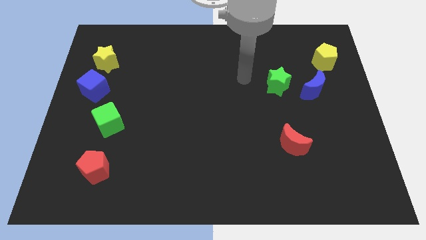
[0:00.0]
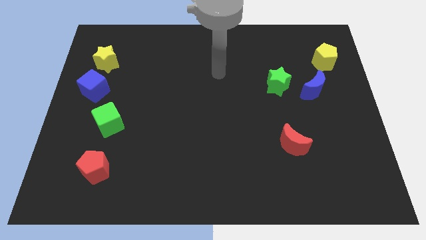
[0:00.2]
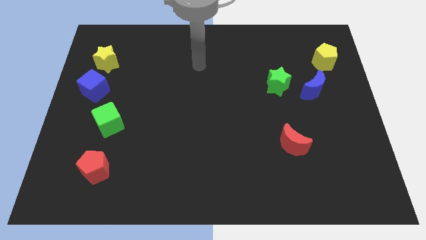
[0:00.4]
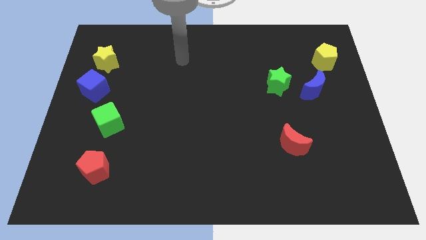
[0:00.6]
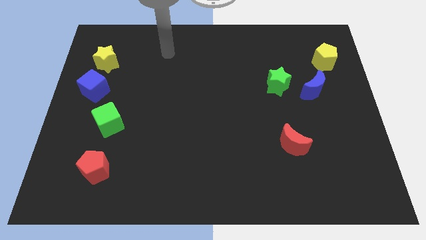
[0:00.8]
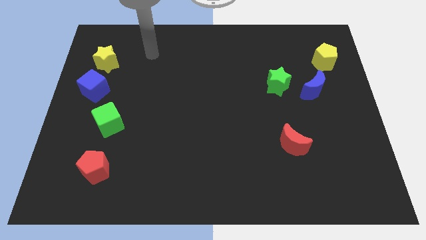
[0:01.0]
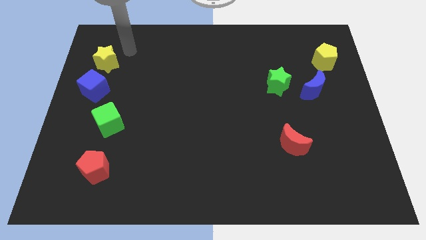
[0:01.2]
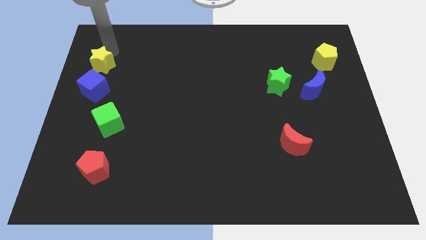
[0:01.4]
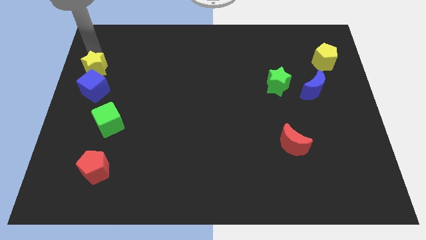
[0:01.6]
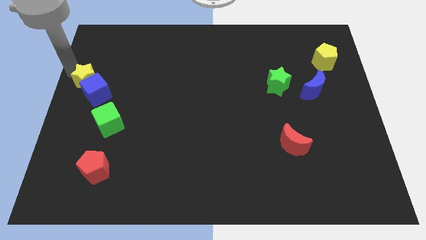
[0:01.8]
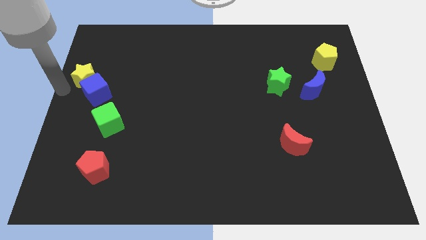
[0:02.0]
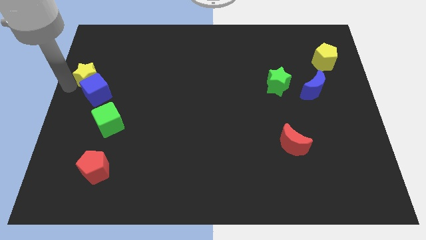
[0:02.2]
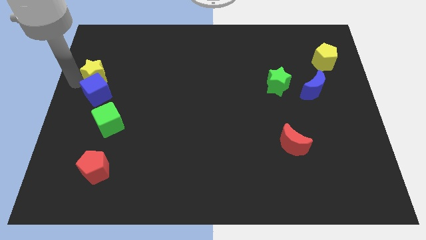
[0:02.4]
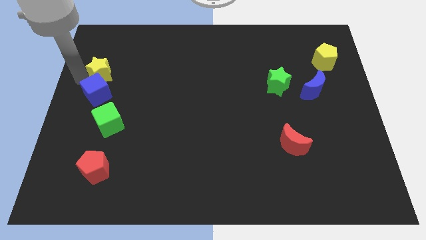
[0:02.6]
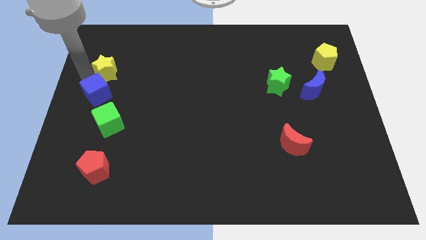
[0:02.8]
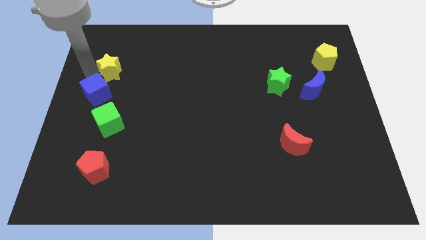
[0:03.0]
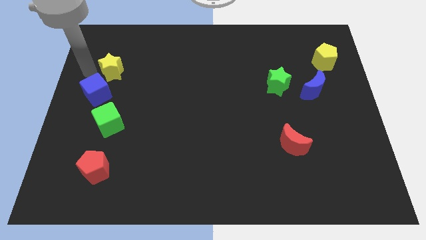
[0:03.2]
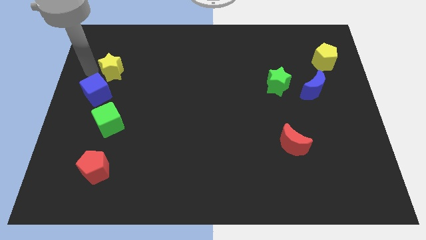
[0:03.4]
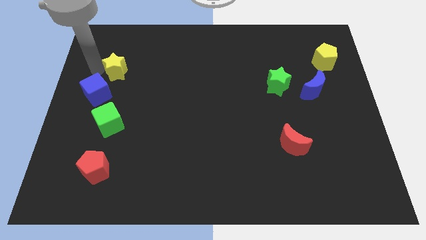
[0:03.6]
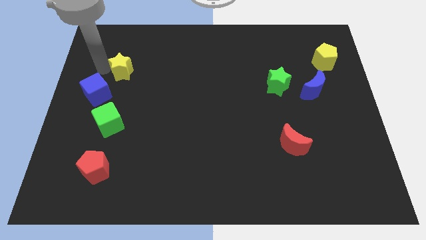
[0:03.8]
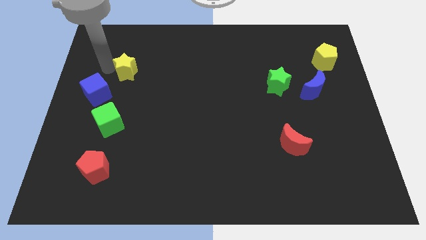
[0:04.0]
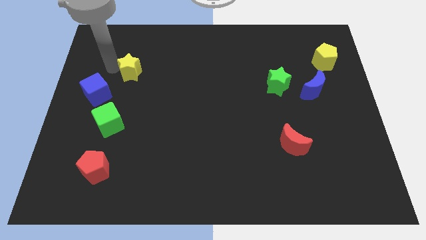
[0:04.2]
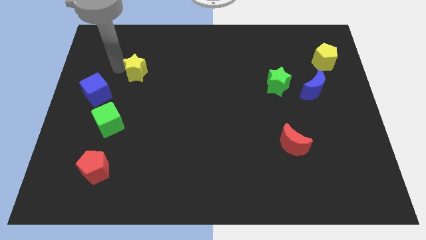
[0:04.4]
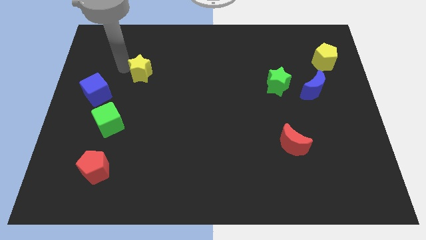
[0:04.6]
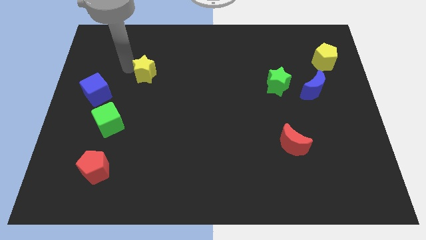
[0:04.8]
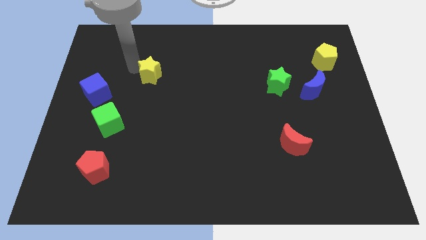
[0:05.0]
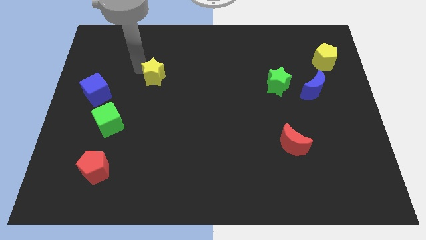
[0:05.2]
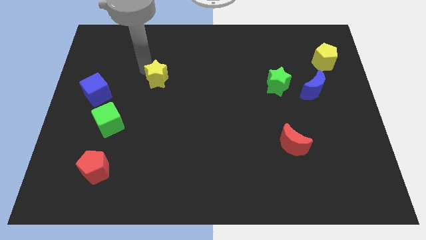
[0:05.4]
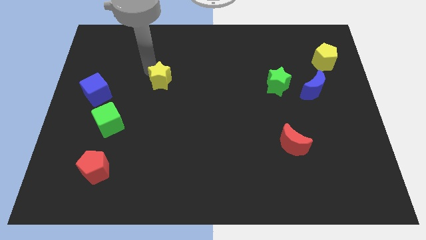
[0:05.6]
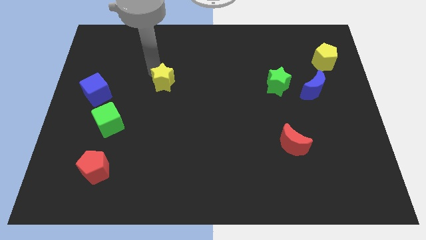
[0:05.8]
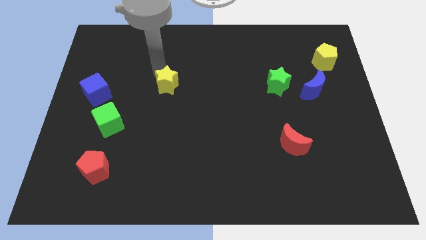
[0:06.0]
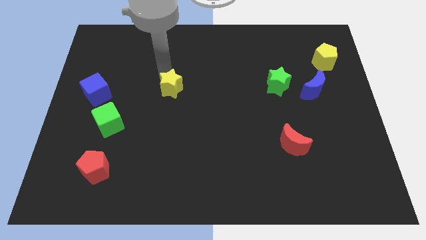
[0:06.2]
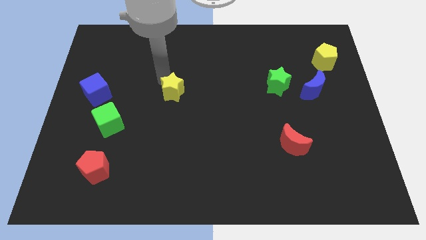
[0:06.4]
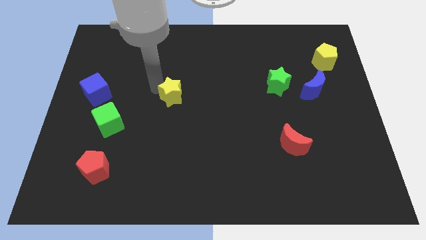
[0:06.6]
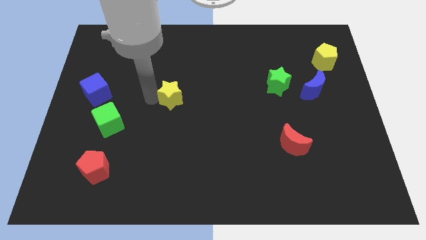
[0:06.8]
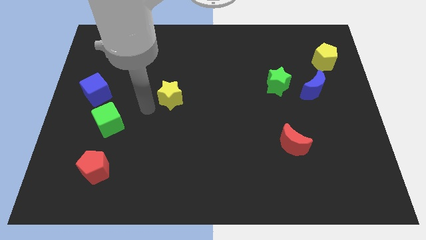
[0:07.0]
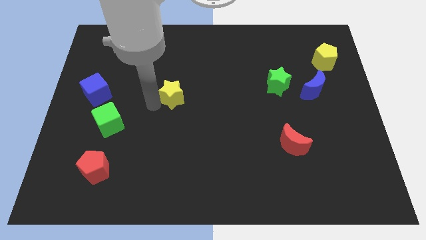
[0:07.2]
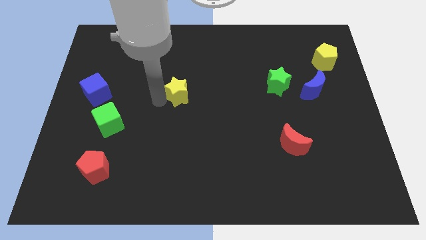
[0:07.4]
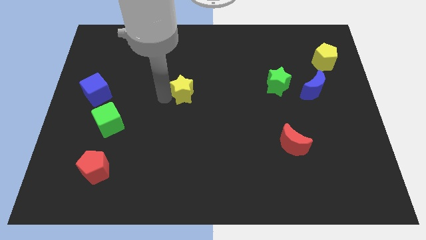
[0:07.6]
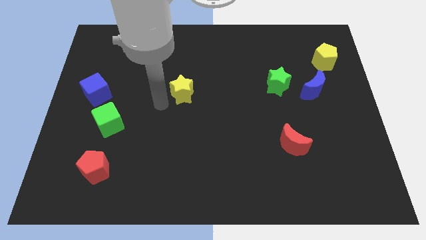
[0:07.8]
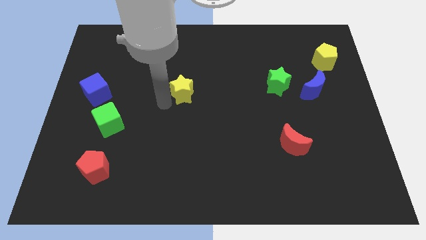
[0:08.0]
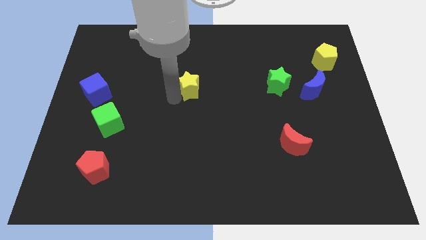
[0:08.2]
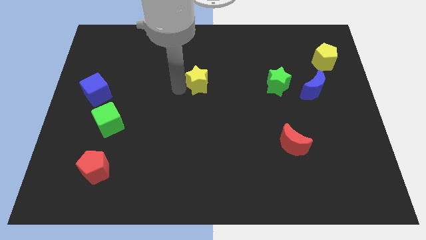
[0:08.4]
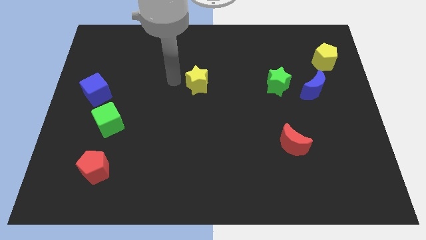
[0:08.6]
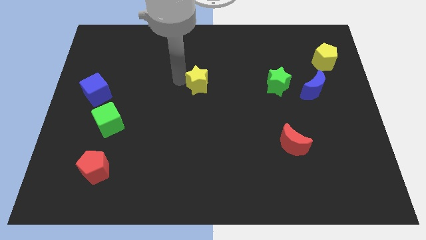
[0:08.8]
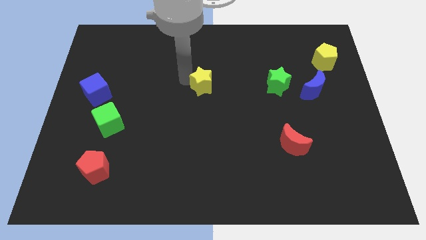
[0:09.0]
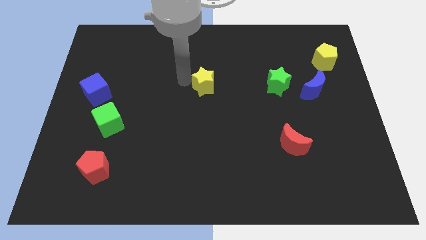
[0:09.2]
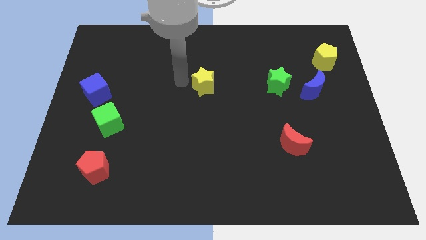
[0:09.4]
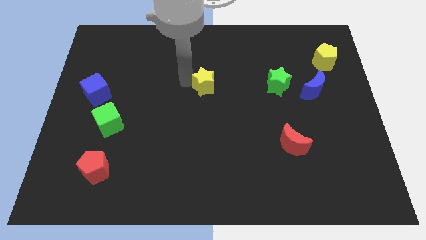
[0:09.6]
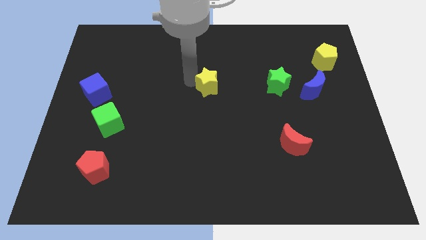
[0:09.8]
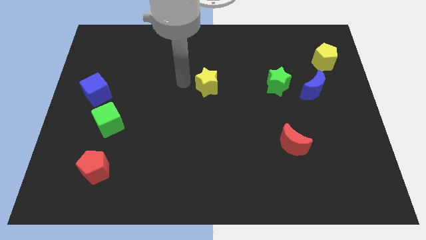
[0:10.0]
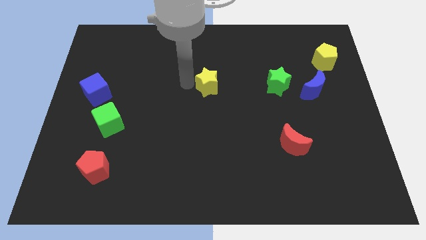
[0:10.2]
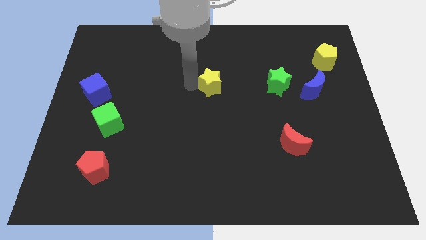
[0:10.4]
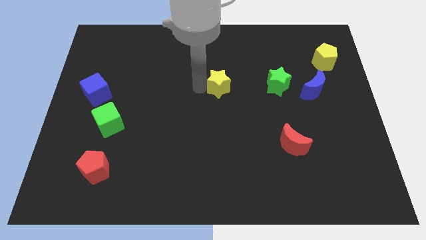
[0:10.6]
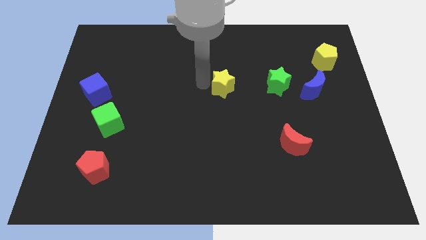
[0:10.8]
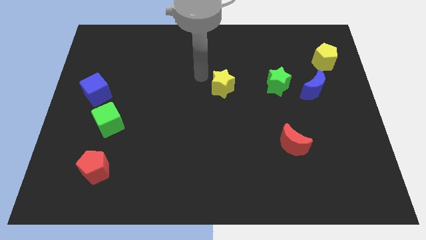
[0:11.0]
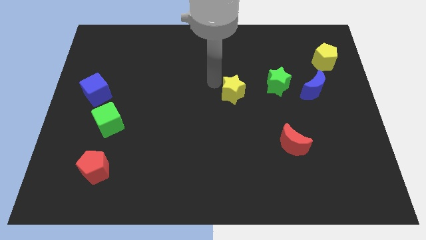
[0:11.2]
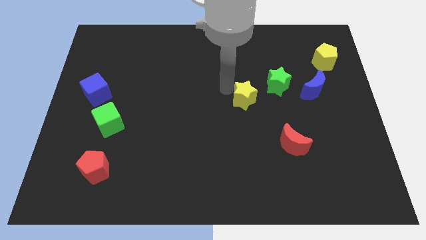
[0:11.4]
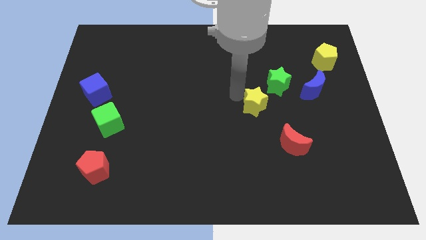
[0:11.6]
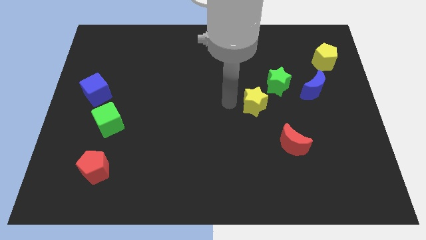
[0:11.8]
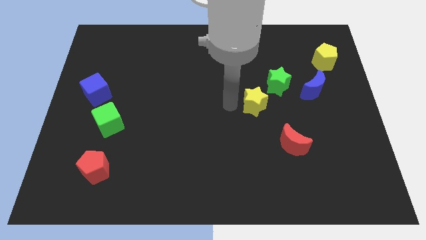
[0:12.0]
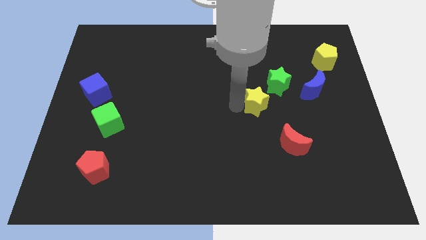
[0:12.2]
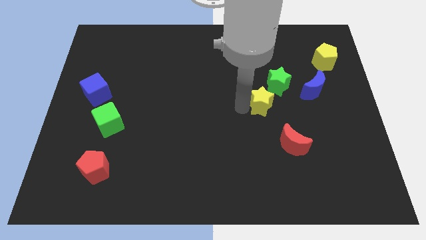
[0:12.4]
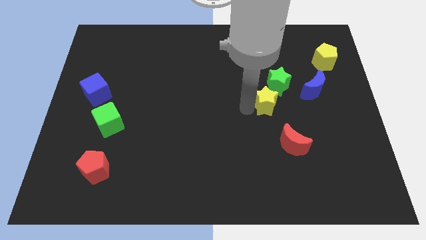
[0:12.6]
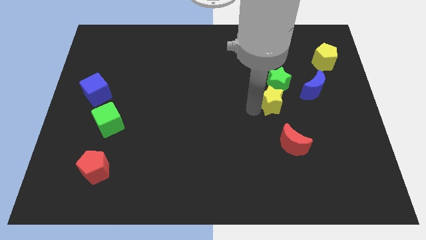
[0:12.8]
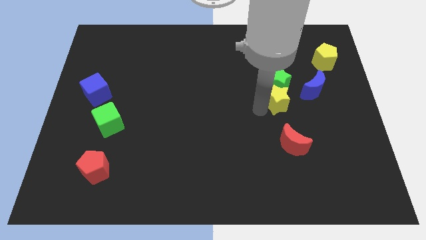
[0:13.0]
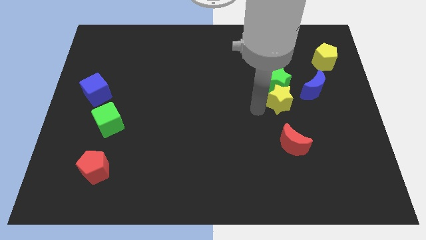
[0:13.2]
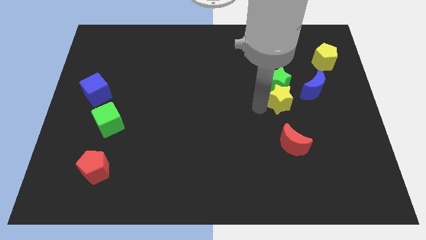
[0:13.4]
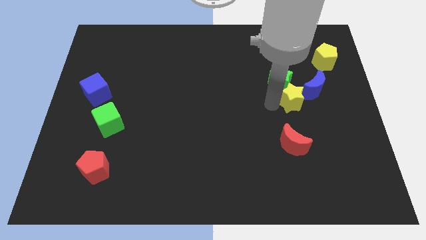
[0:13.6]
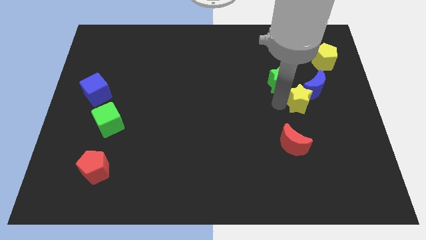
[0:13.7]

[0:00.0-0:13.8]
put the yellow star towards the blue moon
